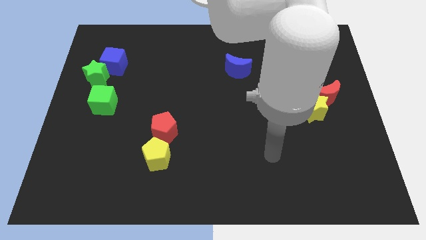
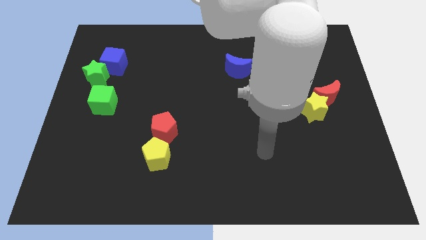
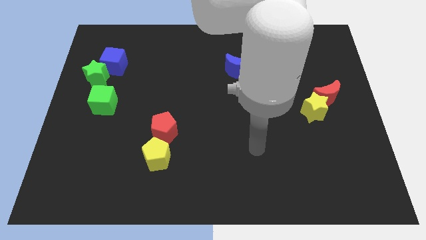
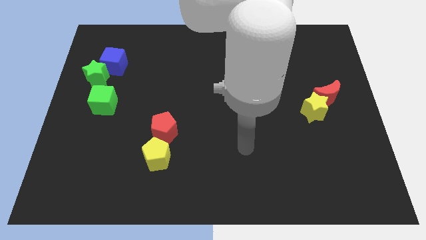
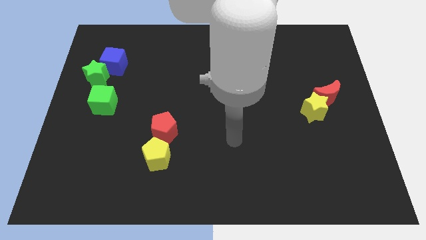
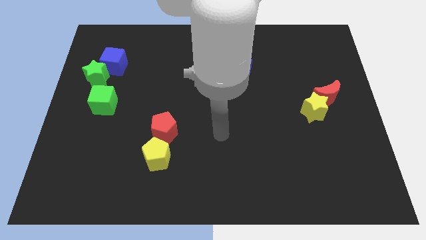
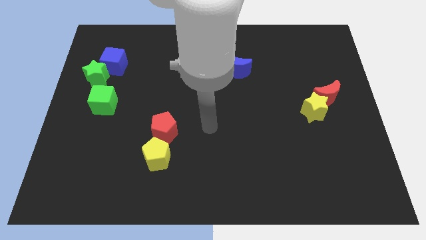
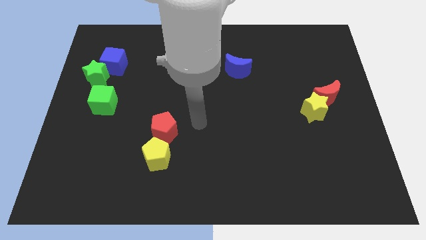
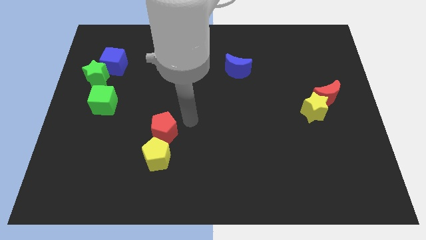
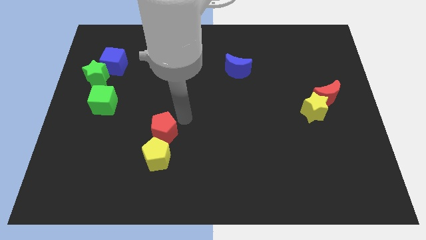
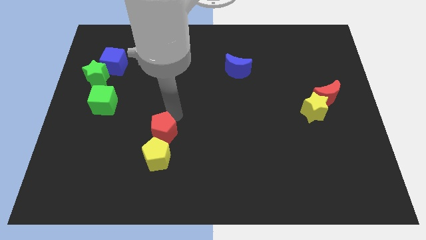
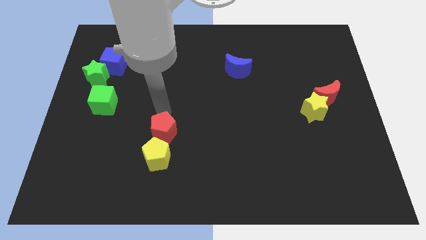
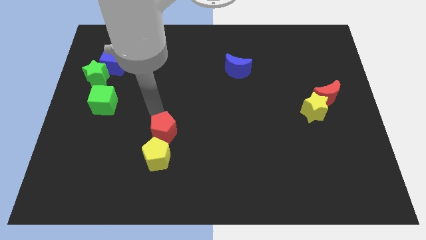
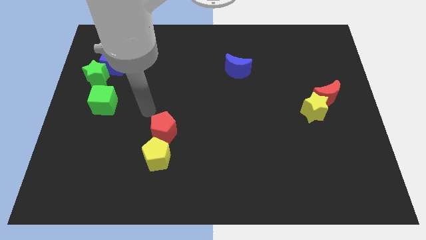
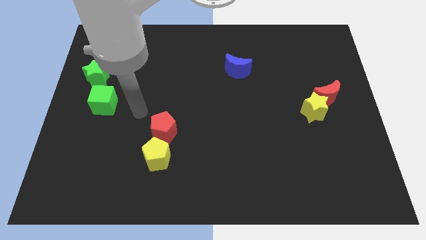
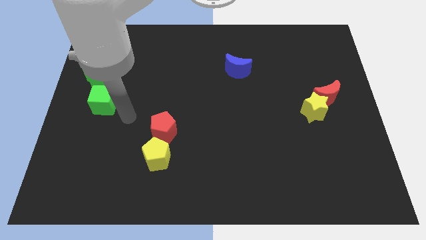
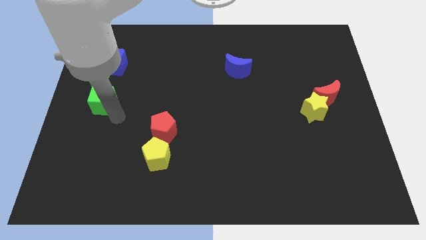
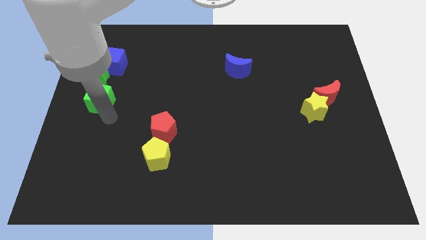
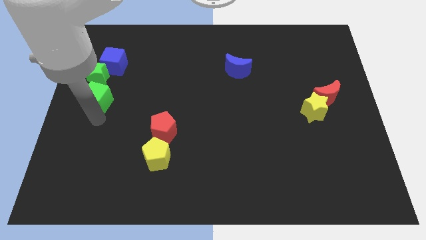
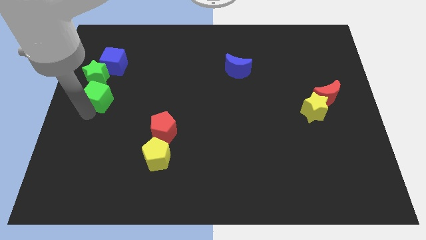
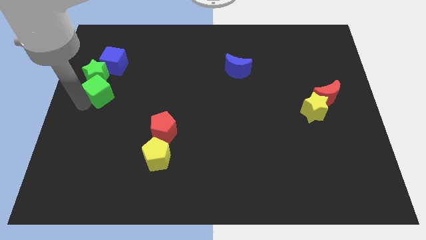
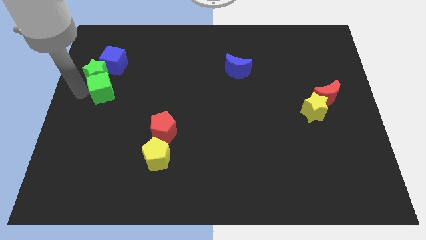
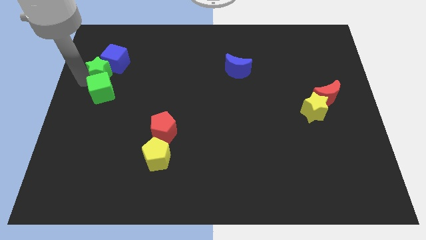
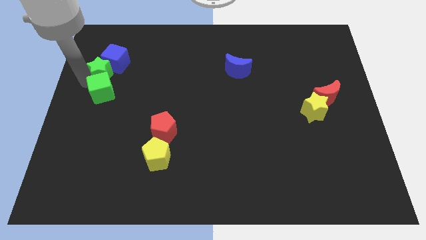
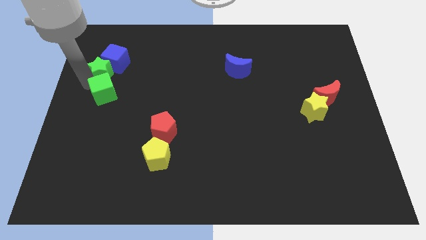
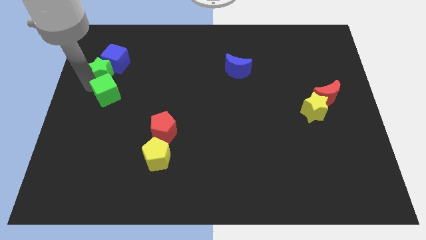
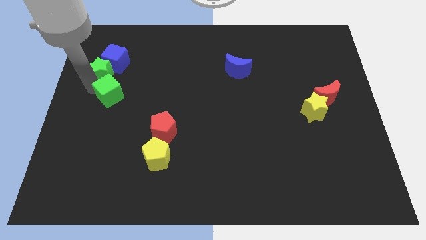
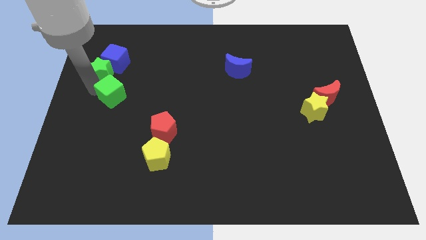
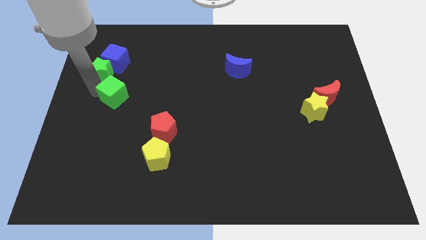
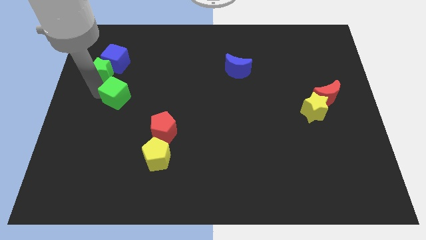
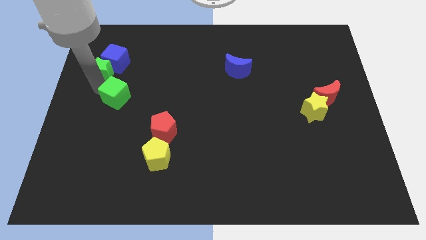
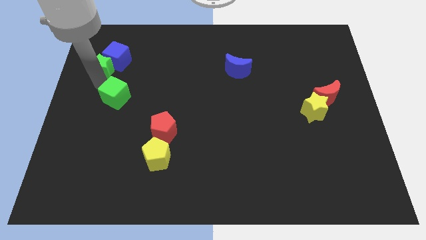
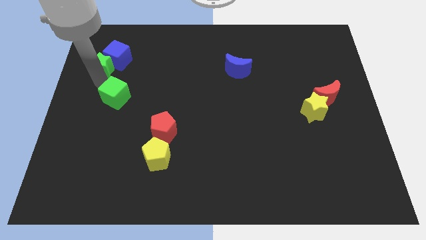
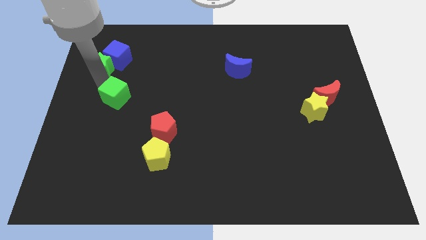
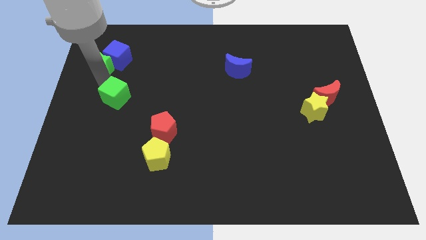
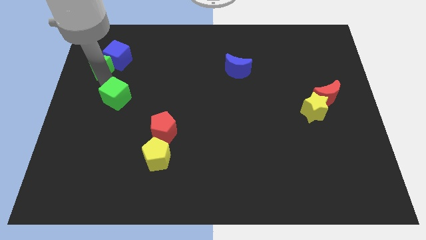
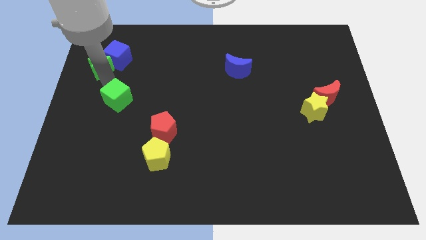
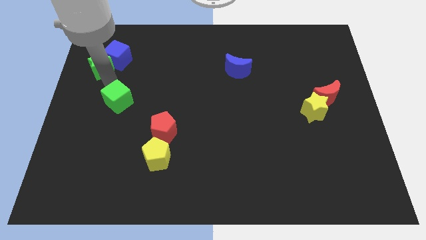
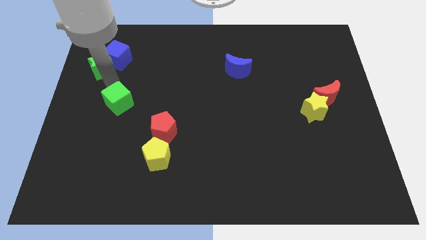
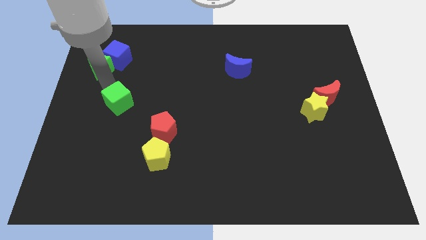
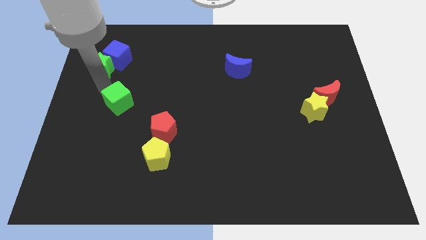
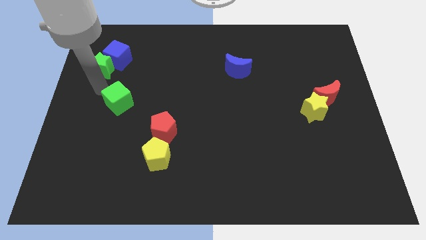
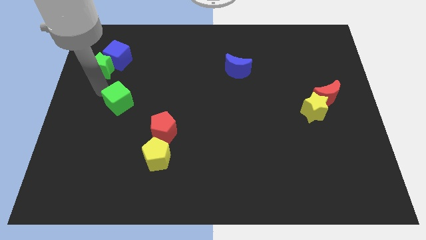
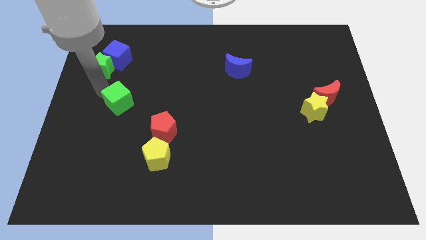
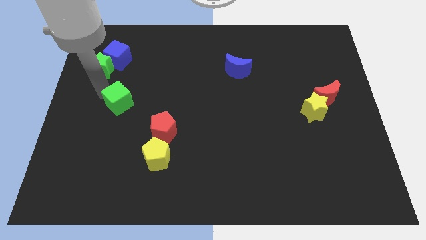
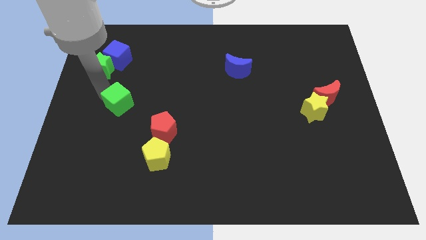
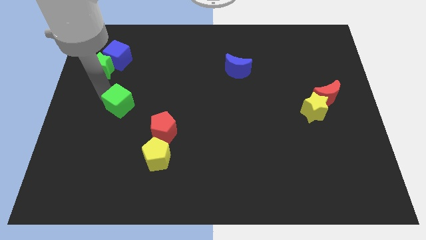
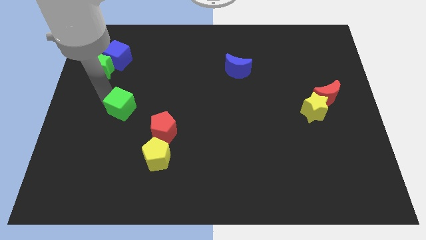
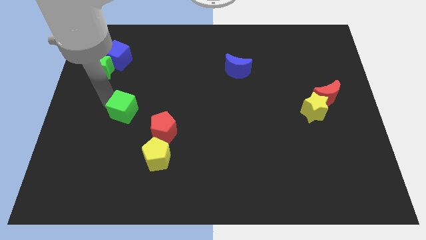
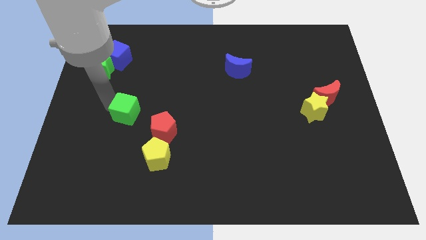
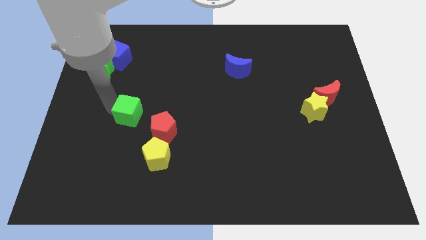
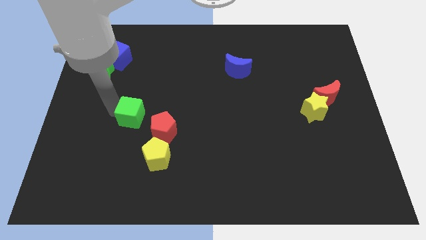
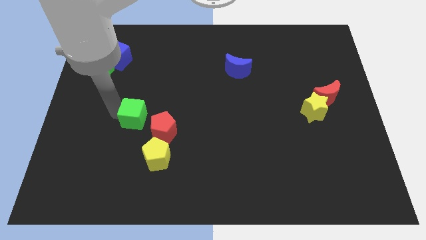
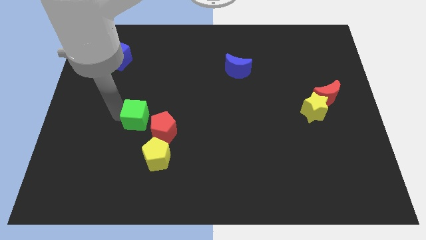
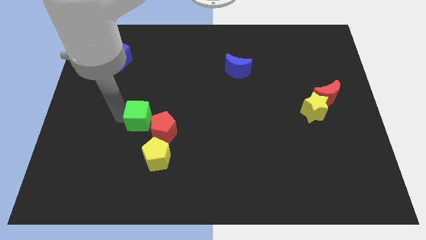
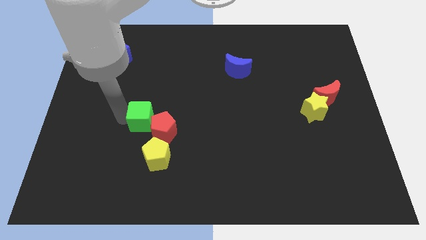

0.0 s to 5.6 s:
put the green cube to the top of the yellow pentagon
